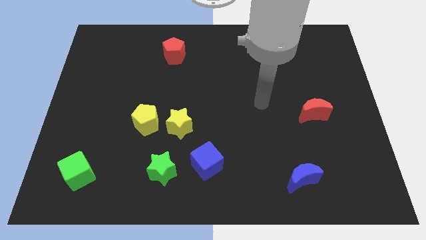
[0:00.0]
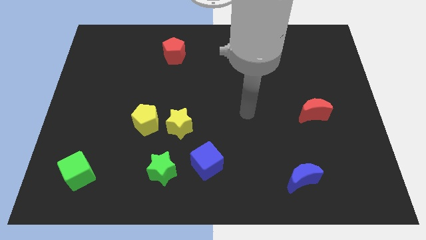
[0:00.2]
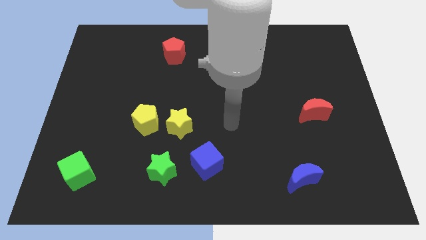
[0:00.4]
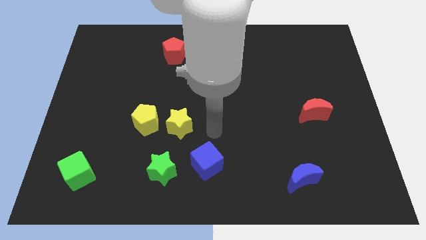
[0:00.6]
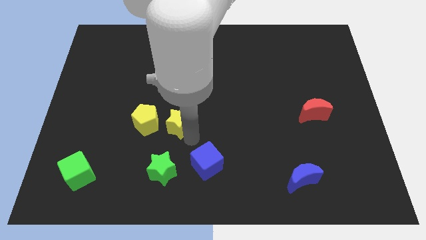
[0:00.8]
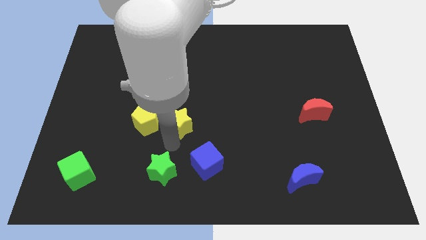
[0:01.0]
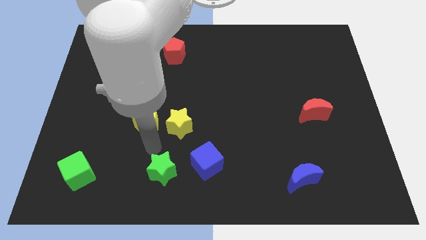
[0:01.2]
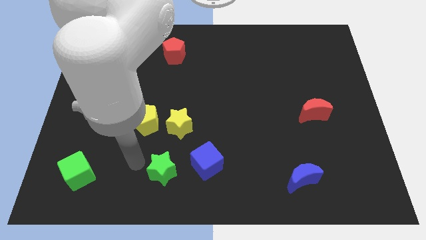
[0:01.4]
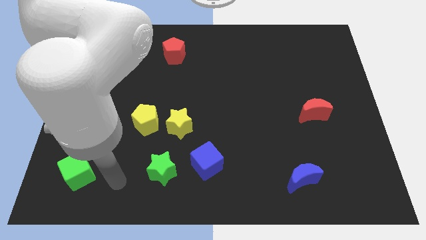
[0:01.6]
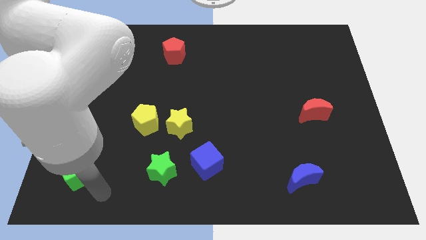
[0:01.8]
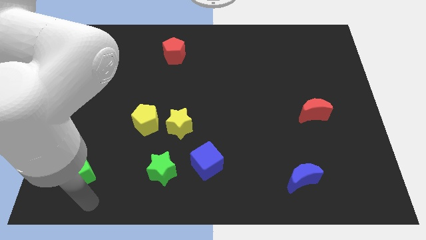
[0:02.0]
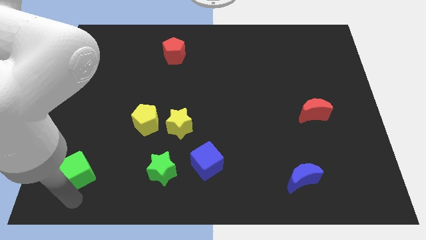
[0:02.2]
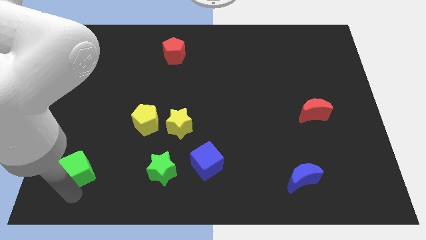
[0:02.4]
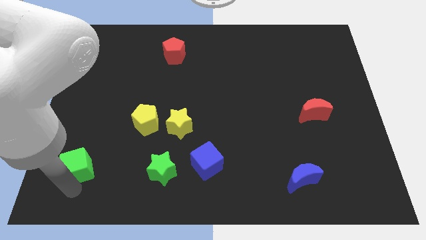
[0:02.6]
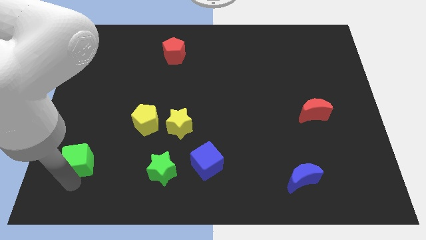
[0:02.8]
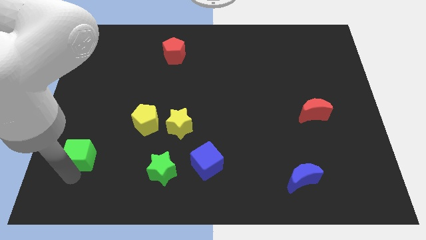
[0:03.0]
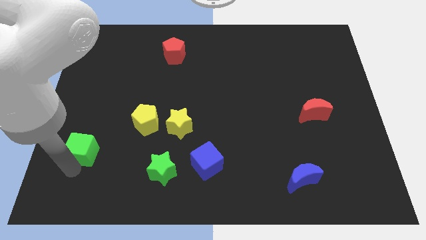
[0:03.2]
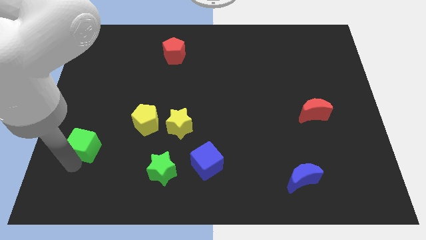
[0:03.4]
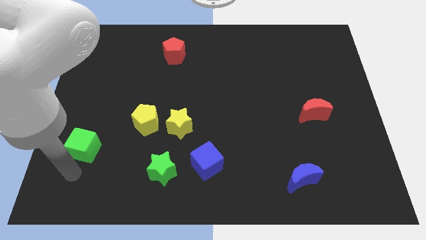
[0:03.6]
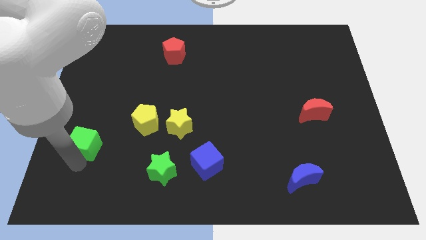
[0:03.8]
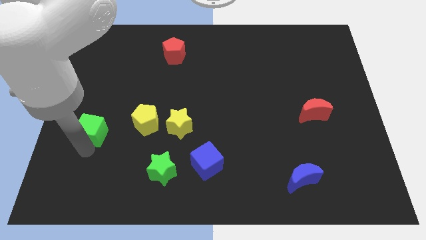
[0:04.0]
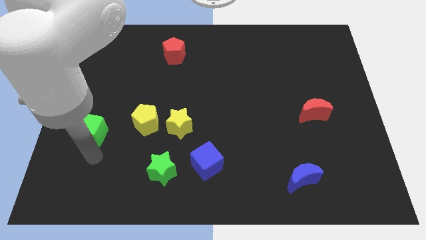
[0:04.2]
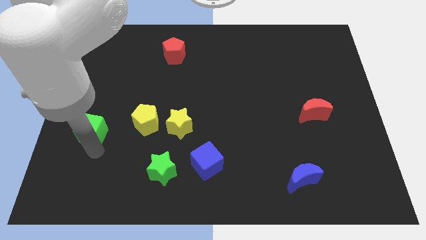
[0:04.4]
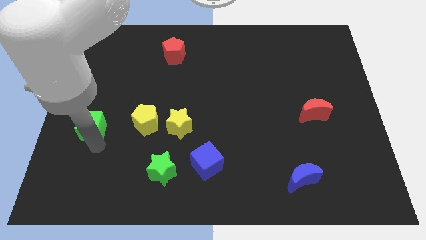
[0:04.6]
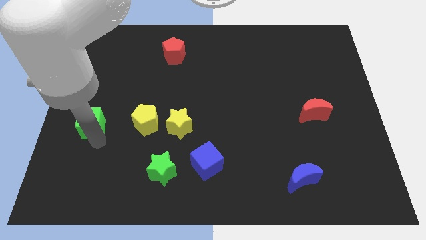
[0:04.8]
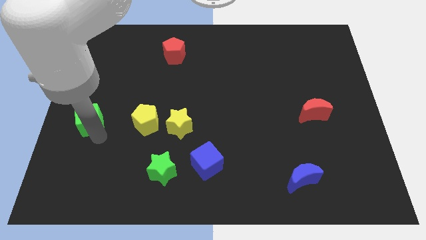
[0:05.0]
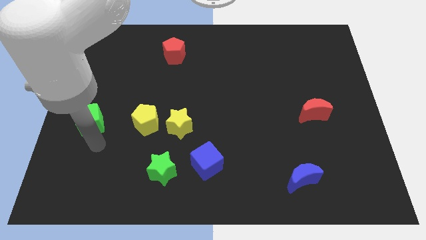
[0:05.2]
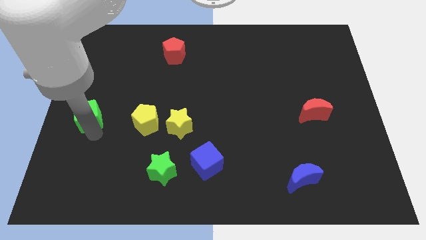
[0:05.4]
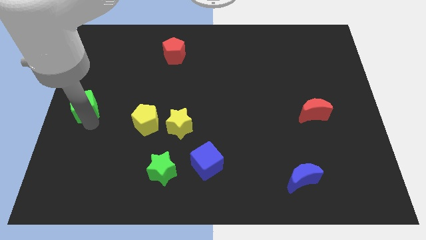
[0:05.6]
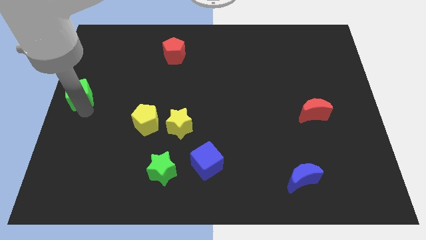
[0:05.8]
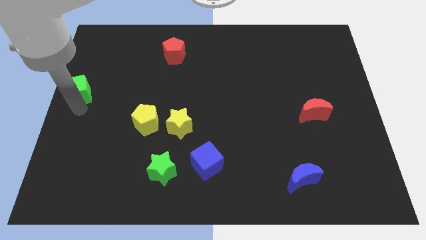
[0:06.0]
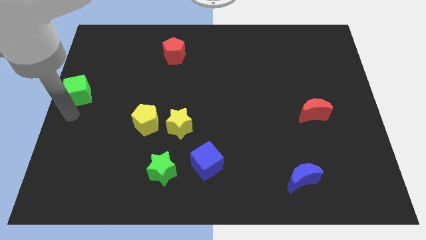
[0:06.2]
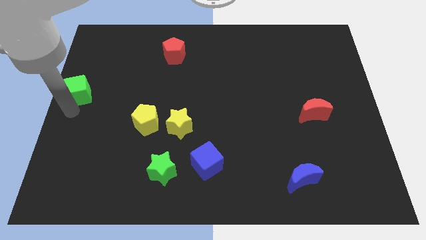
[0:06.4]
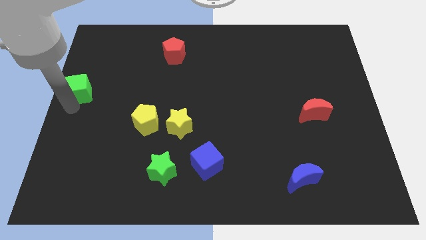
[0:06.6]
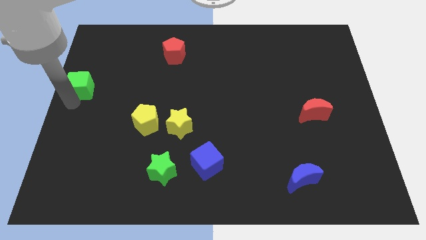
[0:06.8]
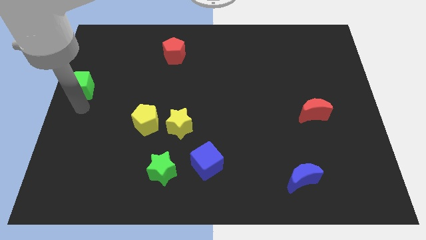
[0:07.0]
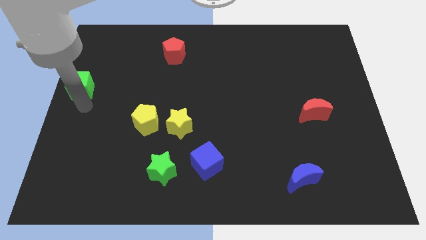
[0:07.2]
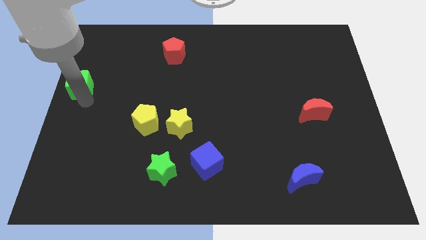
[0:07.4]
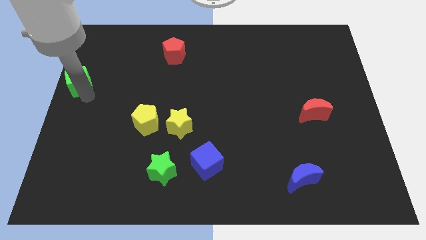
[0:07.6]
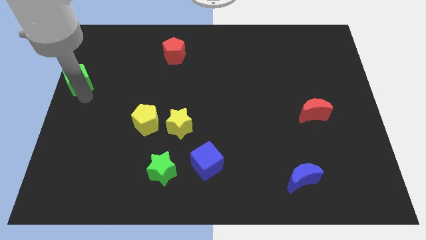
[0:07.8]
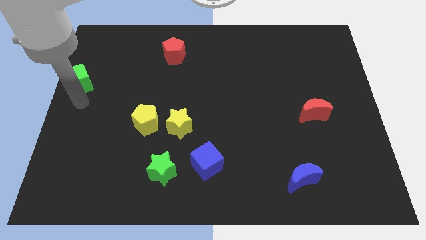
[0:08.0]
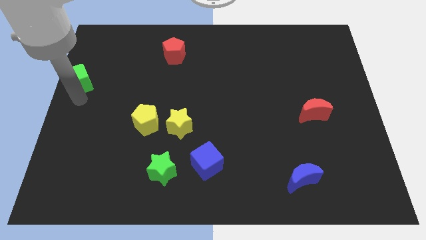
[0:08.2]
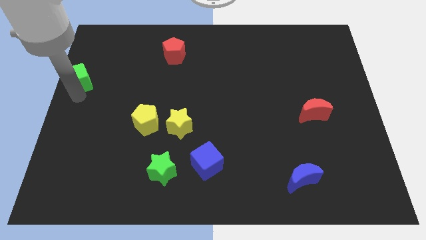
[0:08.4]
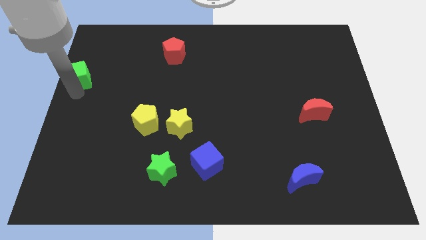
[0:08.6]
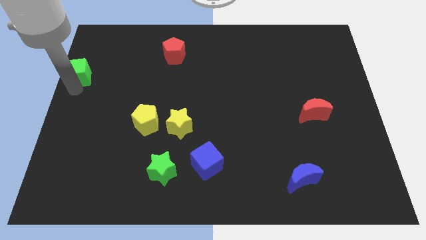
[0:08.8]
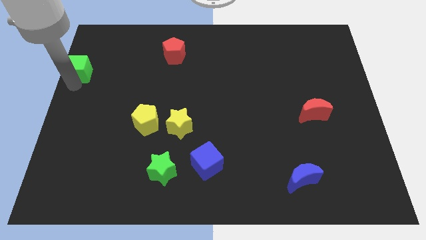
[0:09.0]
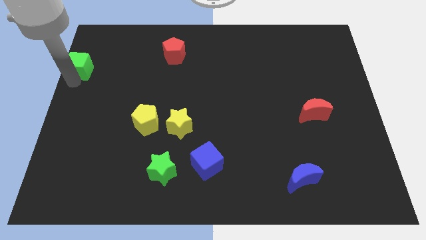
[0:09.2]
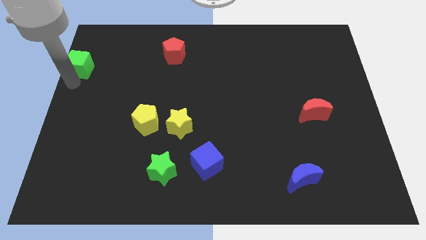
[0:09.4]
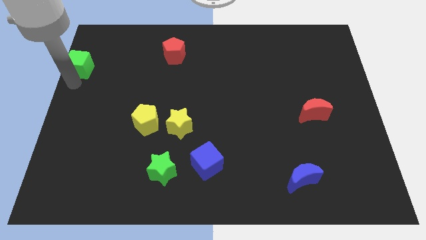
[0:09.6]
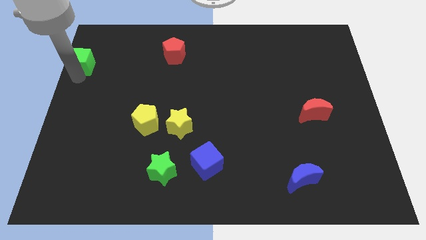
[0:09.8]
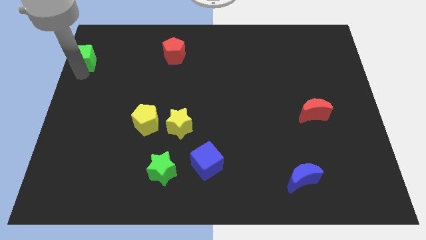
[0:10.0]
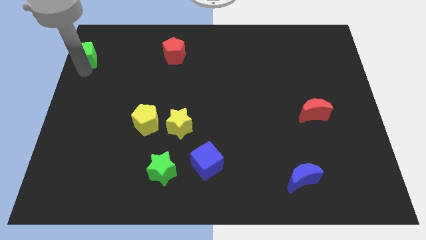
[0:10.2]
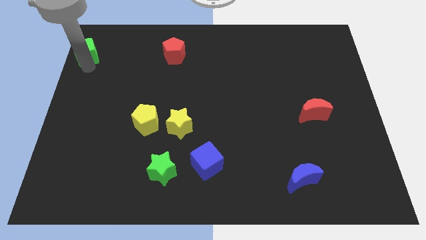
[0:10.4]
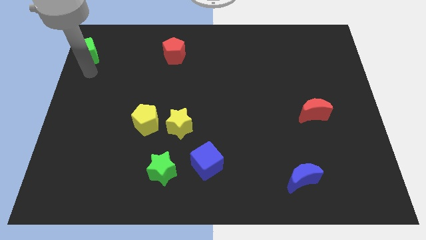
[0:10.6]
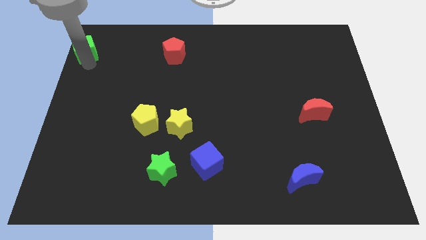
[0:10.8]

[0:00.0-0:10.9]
move the green cube to the upper left corner

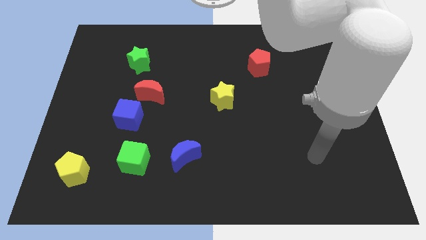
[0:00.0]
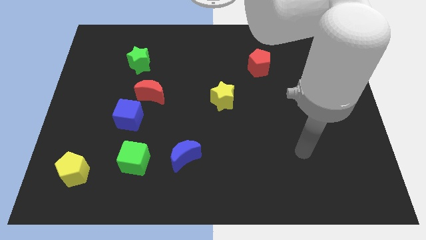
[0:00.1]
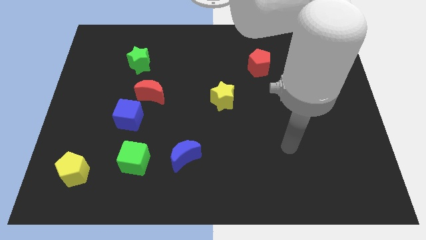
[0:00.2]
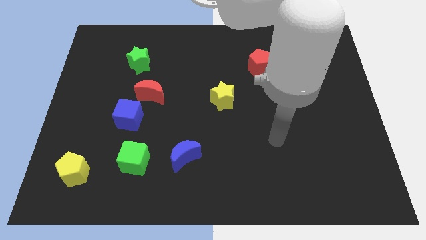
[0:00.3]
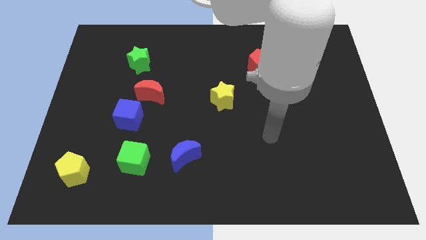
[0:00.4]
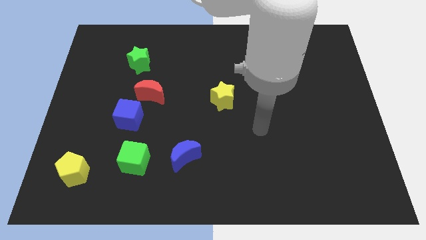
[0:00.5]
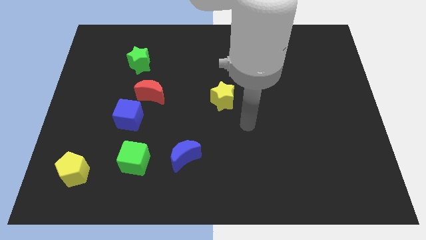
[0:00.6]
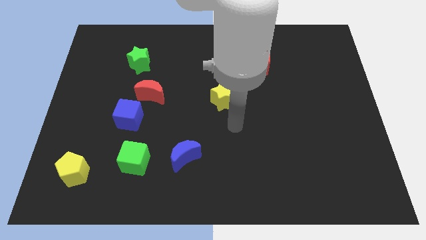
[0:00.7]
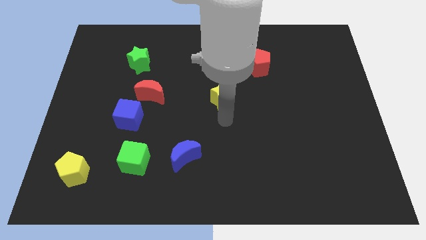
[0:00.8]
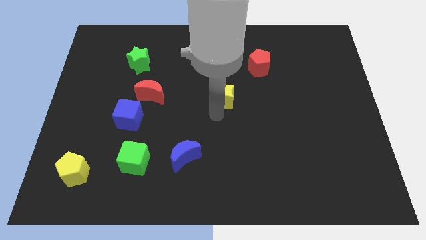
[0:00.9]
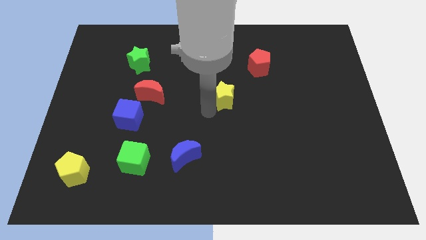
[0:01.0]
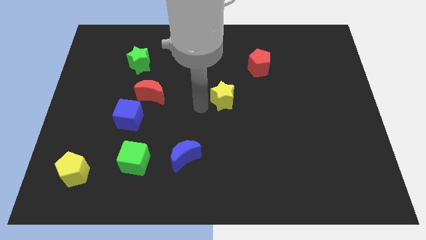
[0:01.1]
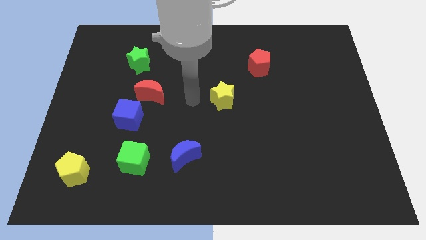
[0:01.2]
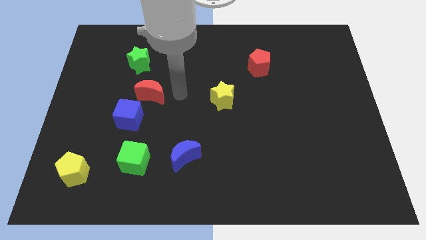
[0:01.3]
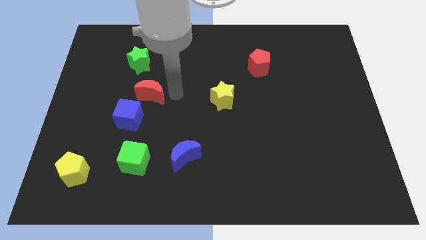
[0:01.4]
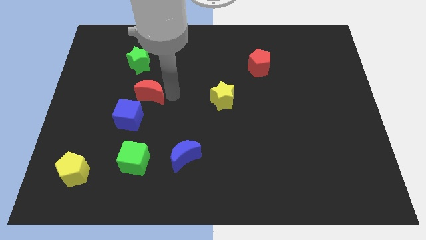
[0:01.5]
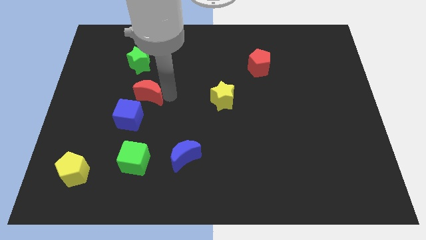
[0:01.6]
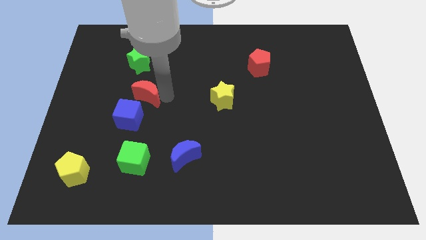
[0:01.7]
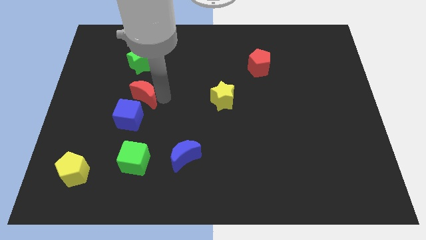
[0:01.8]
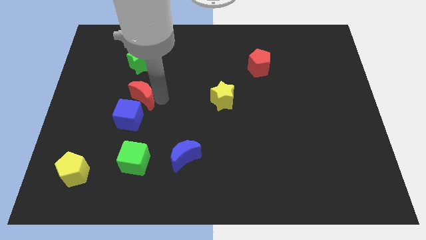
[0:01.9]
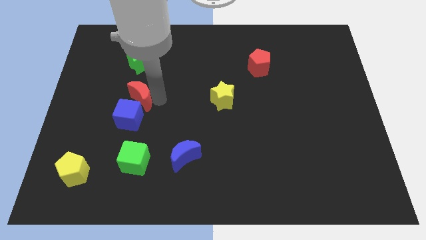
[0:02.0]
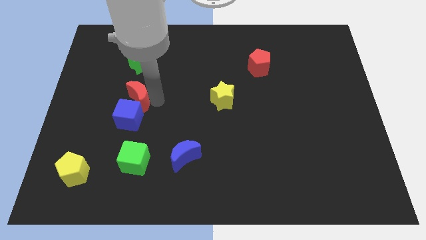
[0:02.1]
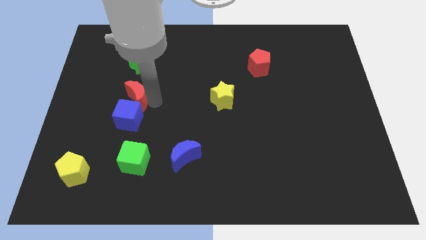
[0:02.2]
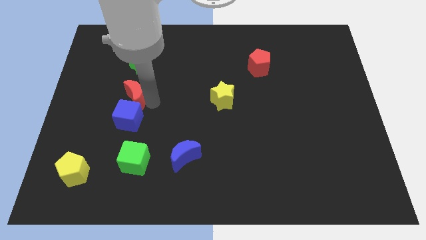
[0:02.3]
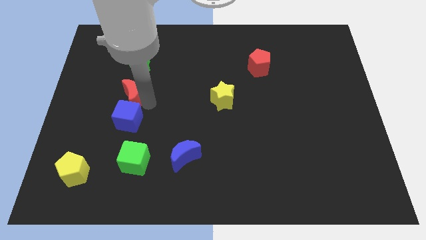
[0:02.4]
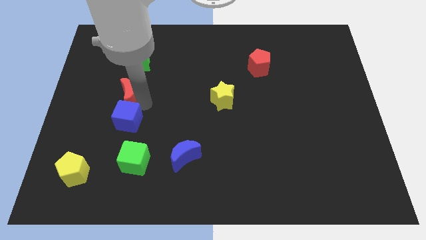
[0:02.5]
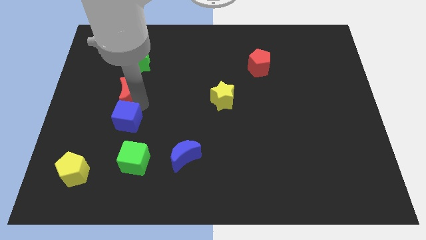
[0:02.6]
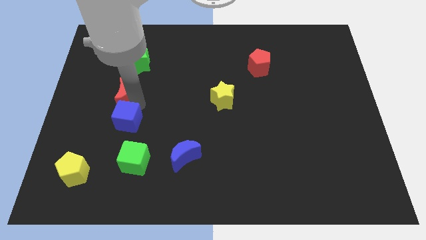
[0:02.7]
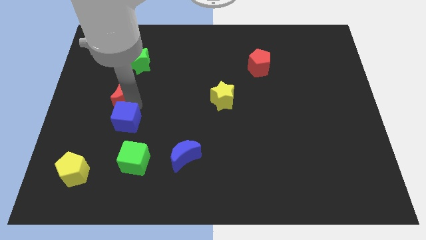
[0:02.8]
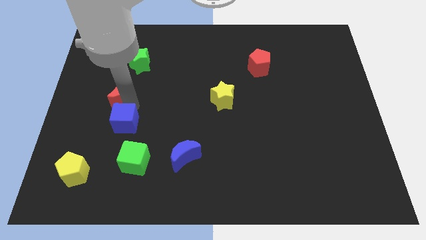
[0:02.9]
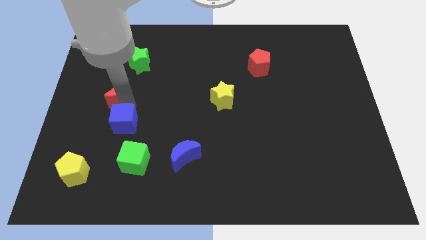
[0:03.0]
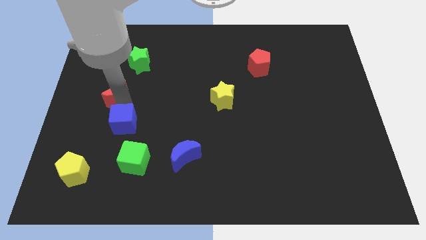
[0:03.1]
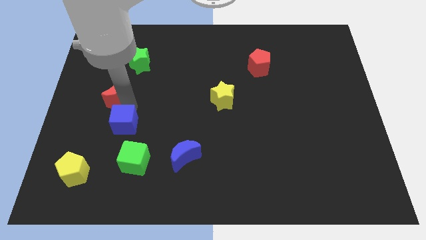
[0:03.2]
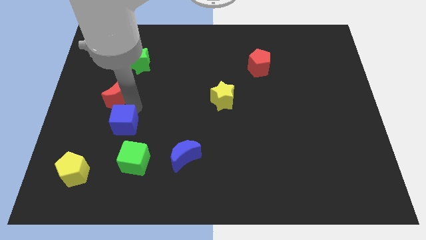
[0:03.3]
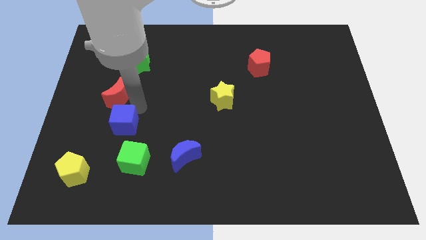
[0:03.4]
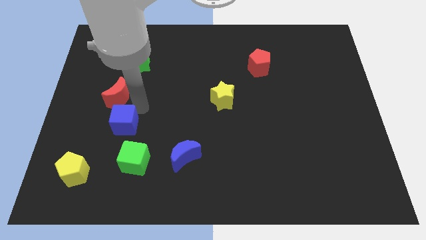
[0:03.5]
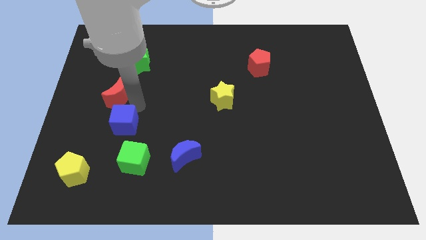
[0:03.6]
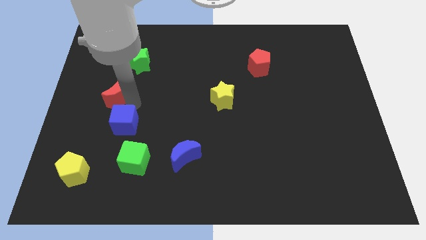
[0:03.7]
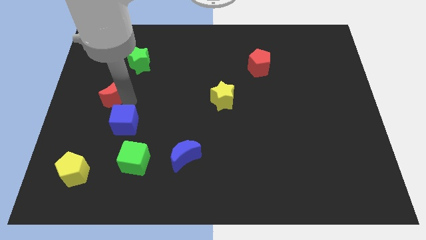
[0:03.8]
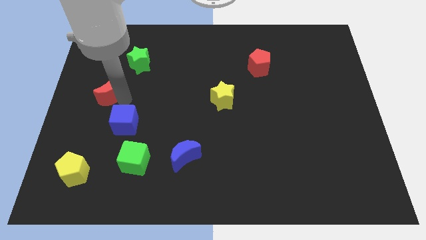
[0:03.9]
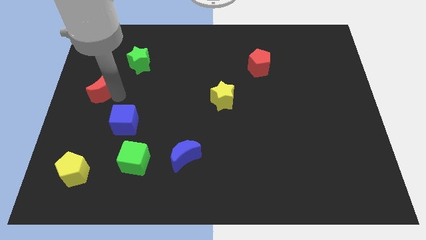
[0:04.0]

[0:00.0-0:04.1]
push the red moon to the left side of the board
